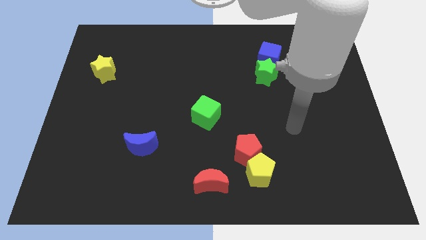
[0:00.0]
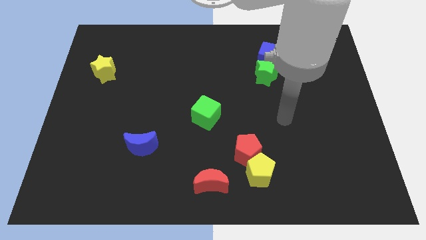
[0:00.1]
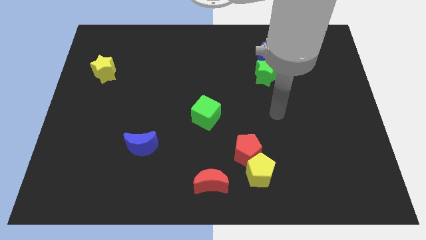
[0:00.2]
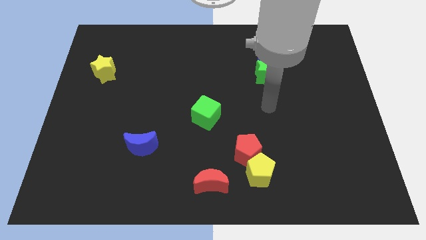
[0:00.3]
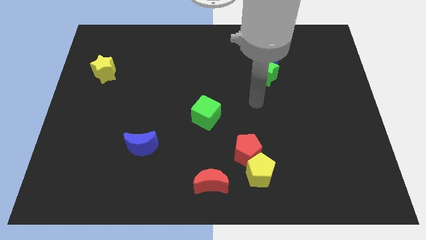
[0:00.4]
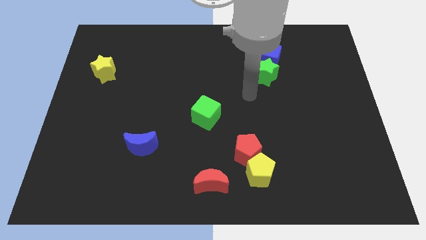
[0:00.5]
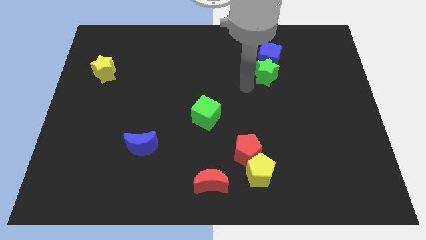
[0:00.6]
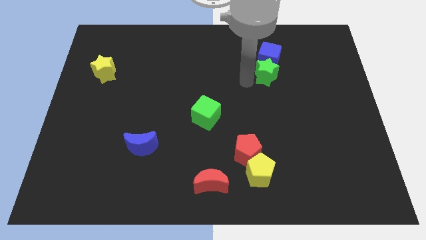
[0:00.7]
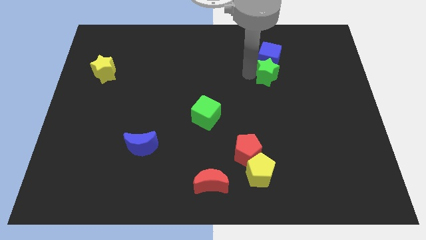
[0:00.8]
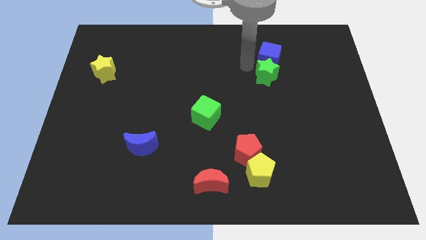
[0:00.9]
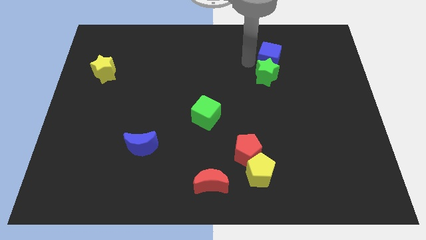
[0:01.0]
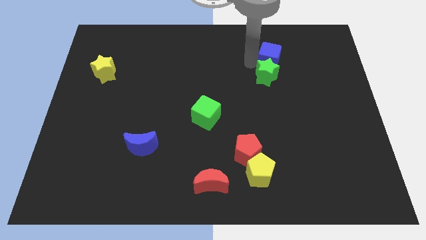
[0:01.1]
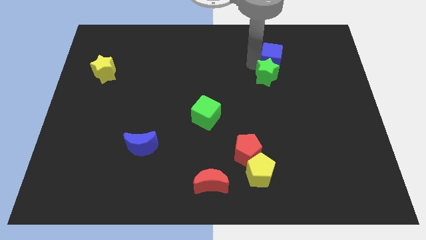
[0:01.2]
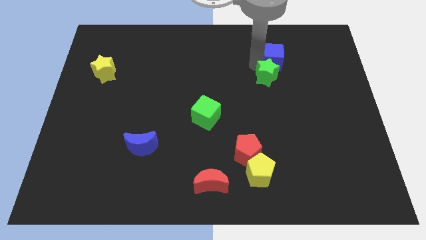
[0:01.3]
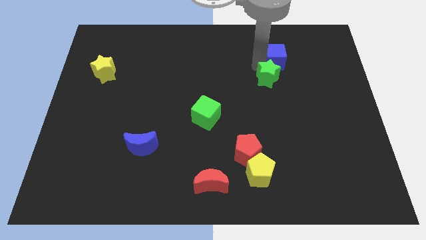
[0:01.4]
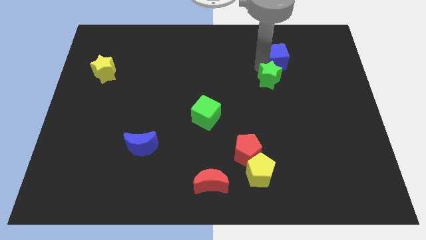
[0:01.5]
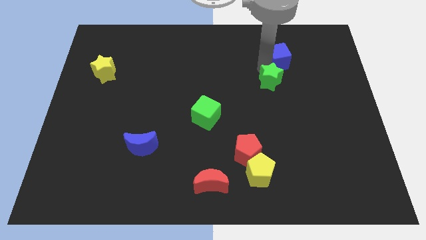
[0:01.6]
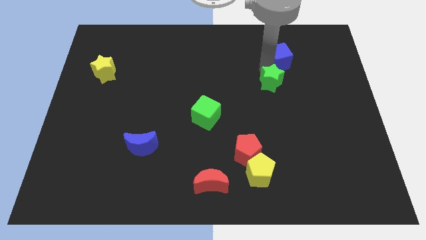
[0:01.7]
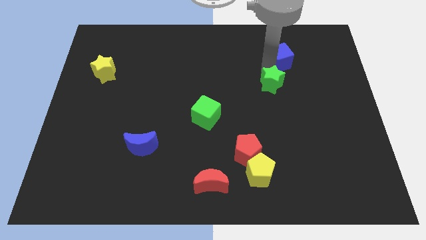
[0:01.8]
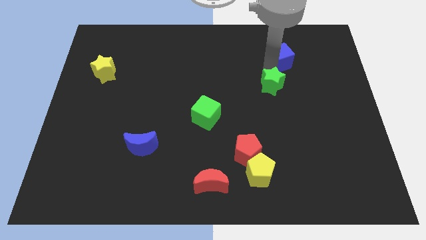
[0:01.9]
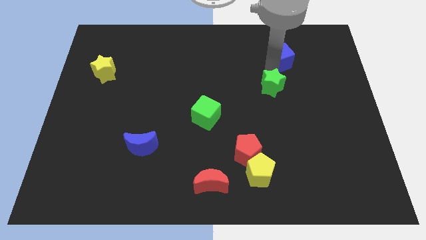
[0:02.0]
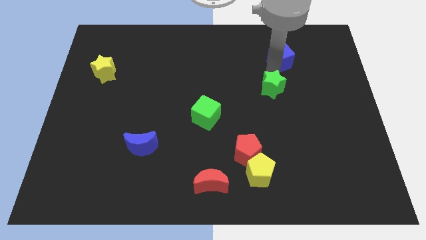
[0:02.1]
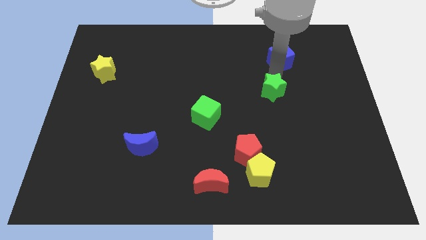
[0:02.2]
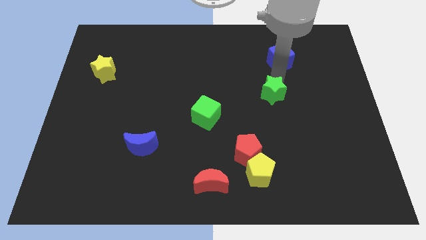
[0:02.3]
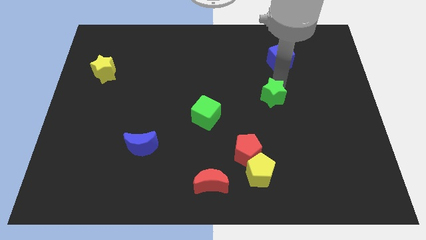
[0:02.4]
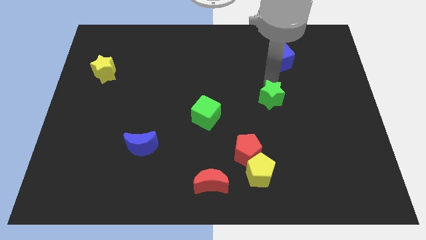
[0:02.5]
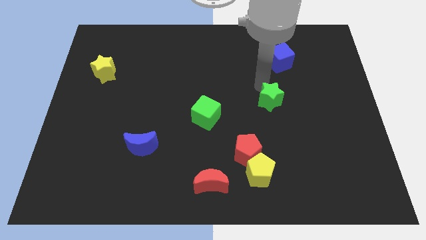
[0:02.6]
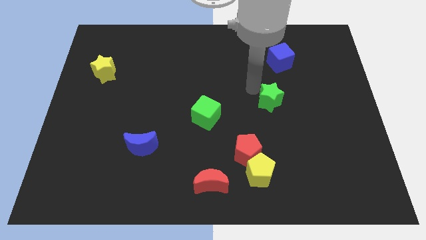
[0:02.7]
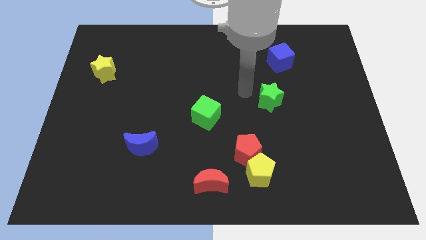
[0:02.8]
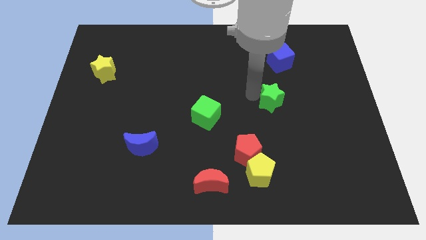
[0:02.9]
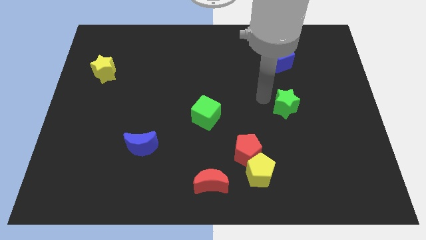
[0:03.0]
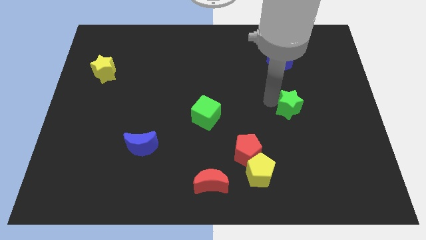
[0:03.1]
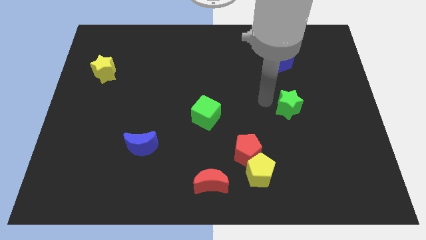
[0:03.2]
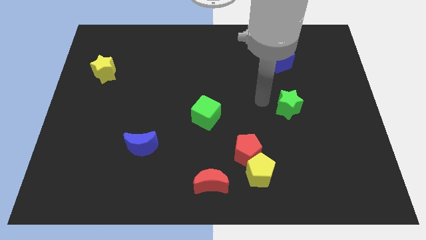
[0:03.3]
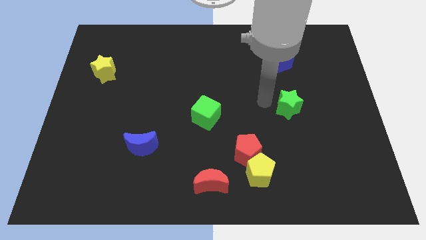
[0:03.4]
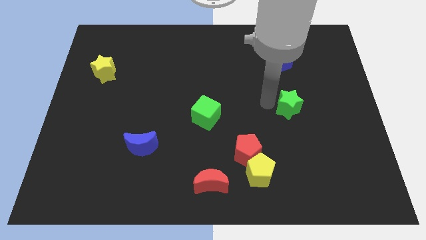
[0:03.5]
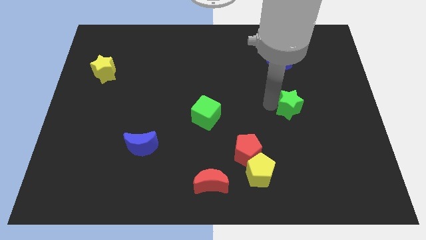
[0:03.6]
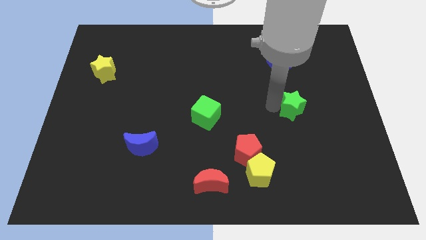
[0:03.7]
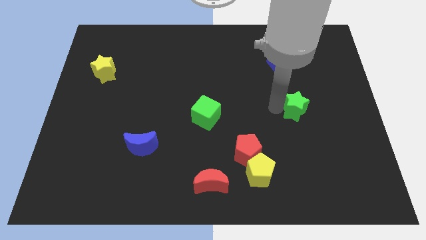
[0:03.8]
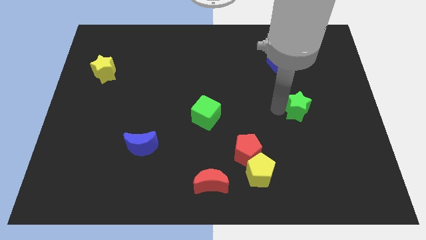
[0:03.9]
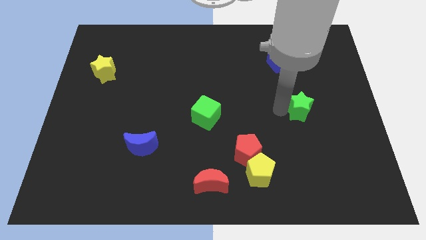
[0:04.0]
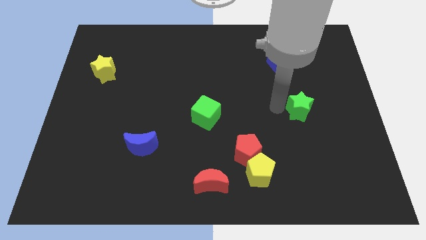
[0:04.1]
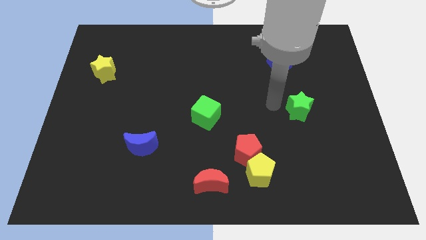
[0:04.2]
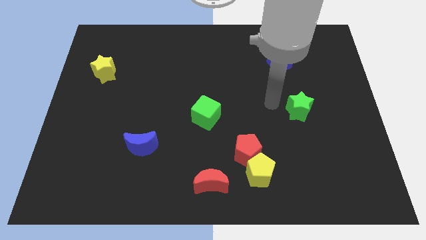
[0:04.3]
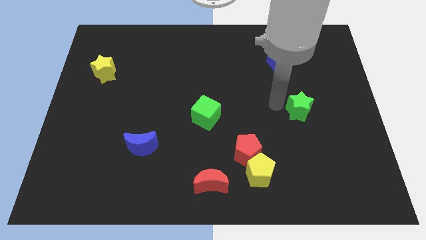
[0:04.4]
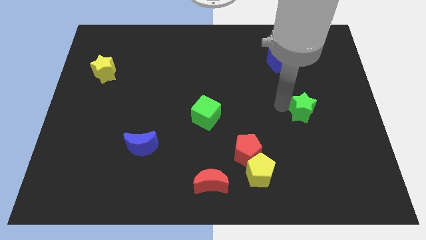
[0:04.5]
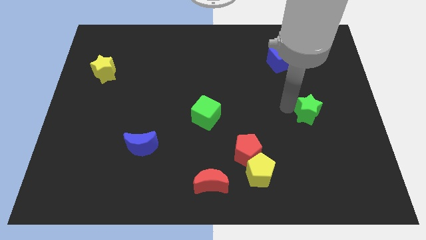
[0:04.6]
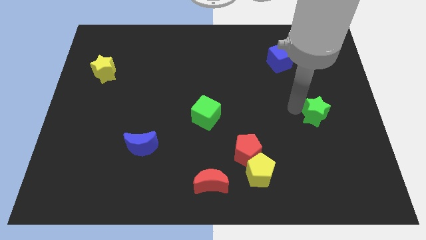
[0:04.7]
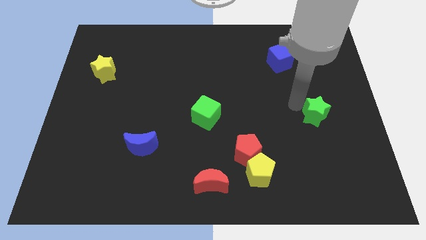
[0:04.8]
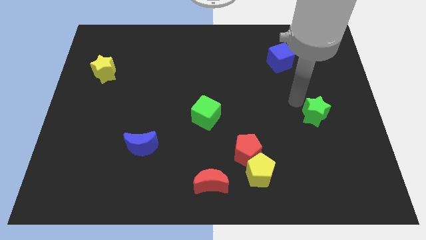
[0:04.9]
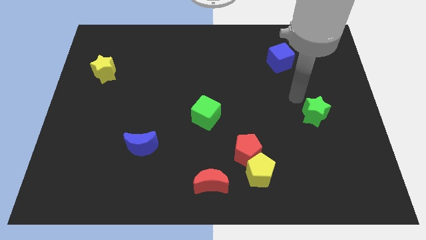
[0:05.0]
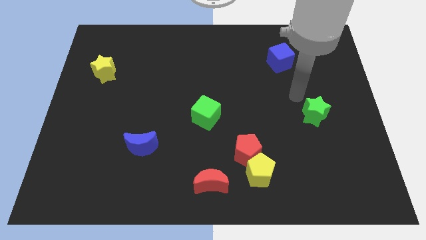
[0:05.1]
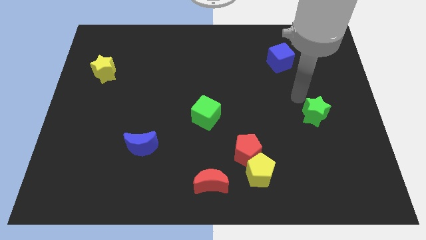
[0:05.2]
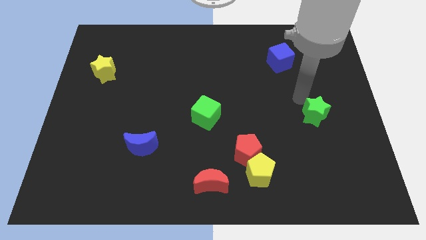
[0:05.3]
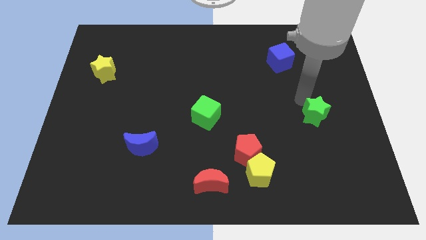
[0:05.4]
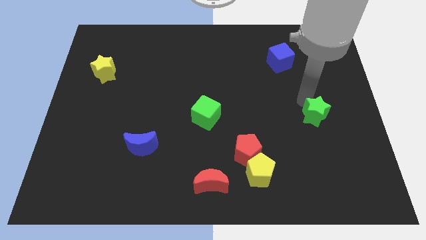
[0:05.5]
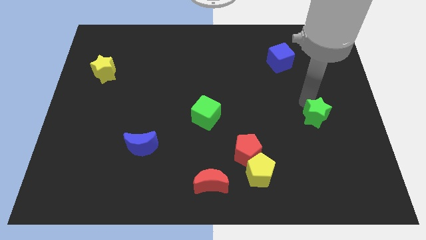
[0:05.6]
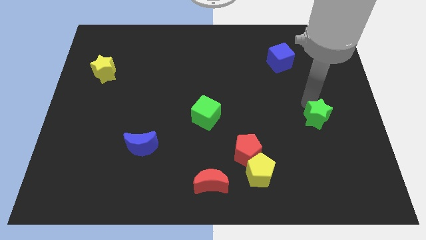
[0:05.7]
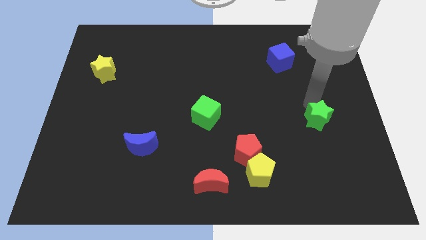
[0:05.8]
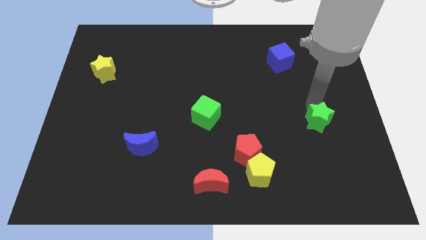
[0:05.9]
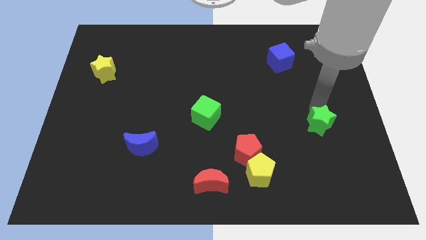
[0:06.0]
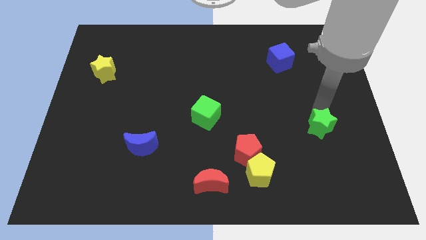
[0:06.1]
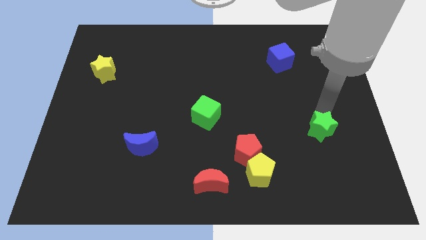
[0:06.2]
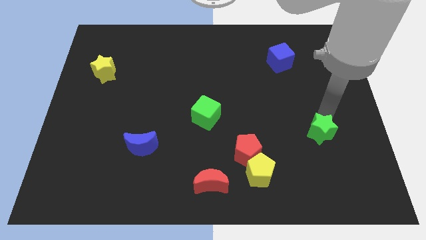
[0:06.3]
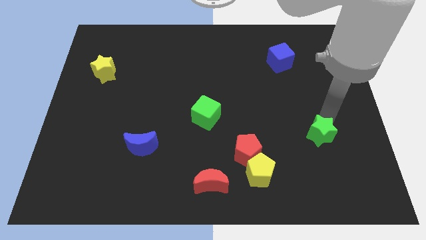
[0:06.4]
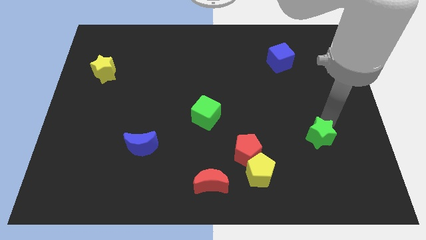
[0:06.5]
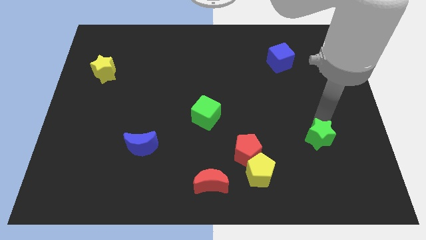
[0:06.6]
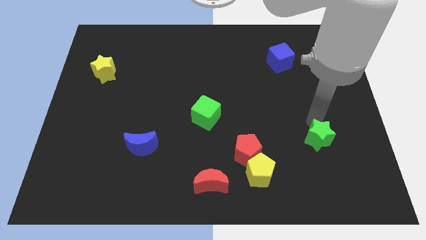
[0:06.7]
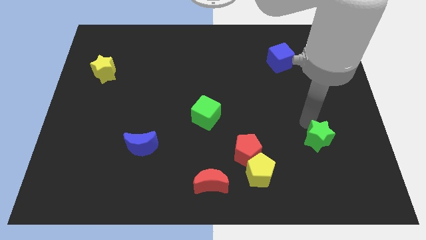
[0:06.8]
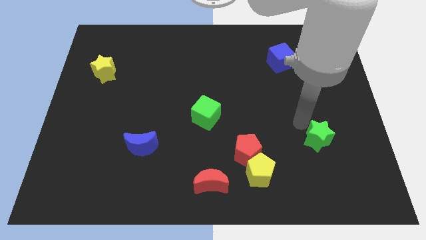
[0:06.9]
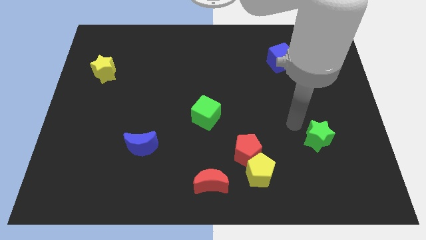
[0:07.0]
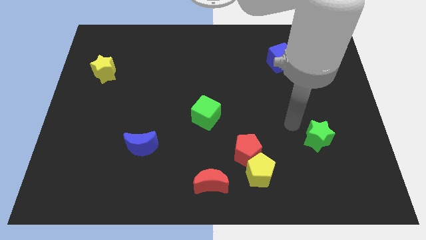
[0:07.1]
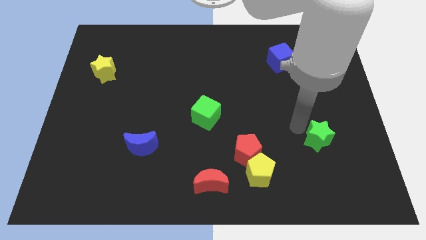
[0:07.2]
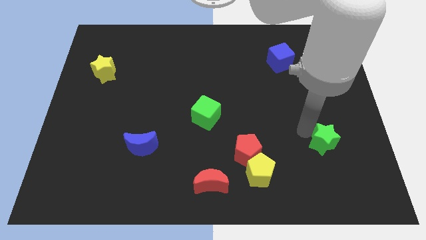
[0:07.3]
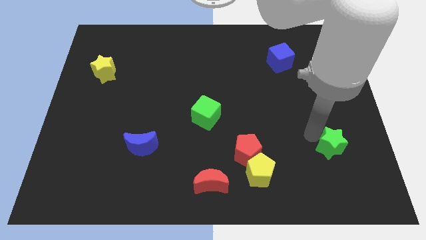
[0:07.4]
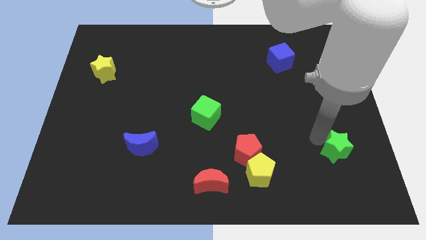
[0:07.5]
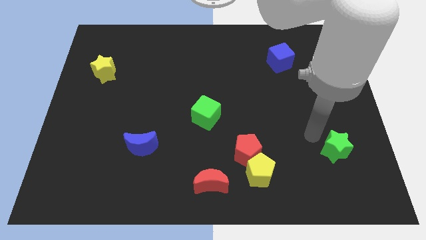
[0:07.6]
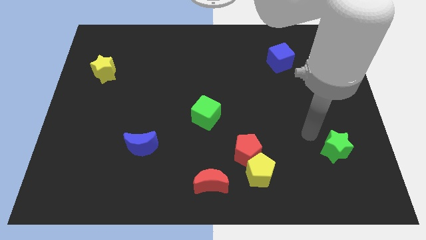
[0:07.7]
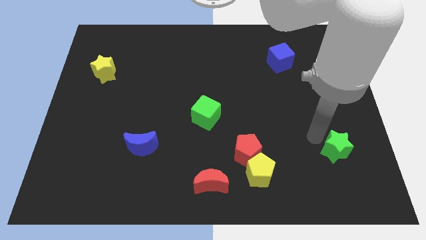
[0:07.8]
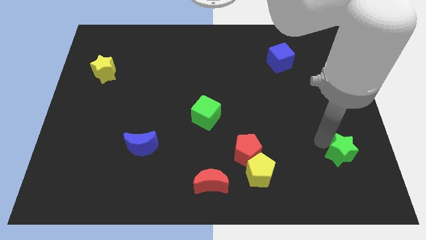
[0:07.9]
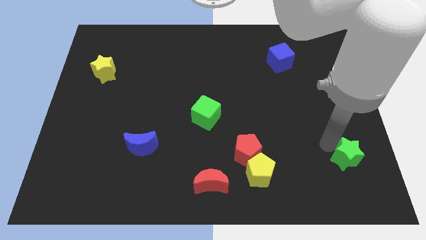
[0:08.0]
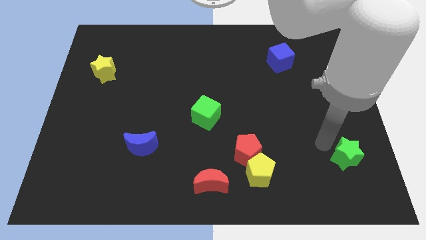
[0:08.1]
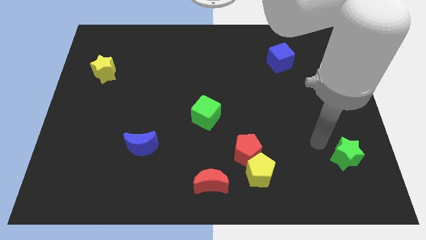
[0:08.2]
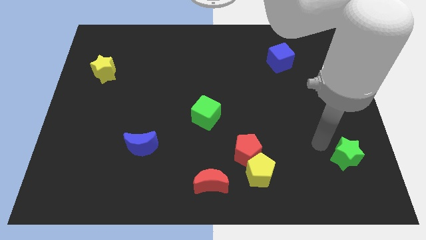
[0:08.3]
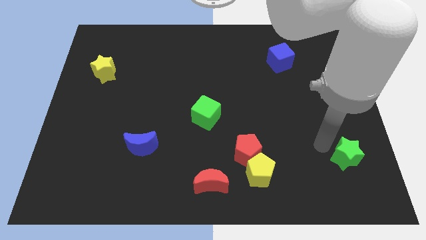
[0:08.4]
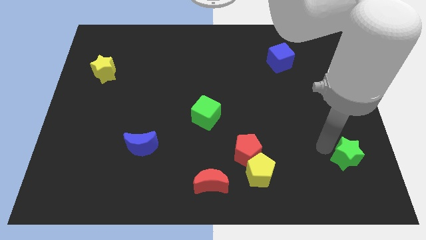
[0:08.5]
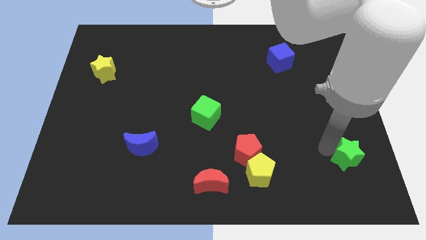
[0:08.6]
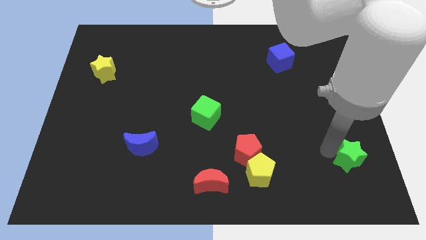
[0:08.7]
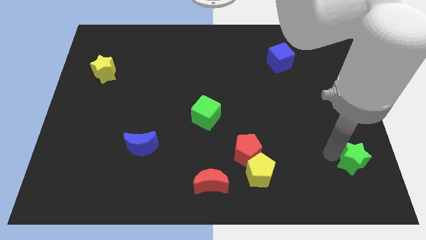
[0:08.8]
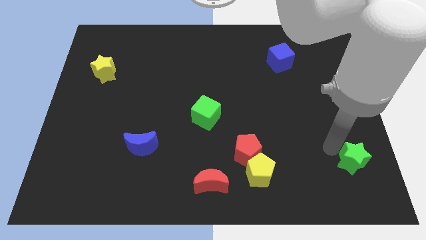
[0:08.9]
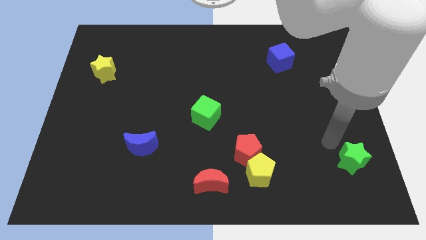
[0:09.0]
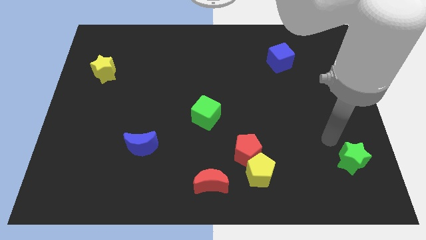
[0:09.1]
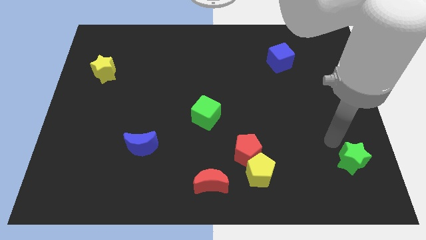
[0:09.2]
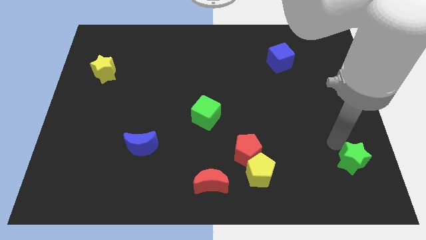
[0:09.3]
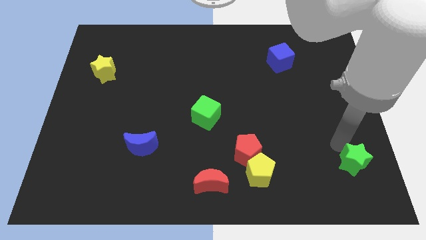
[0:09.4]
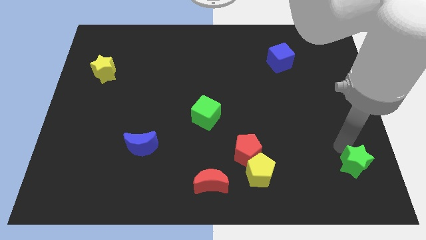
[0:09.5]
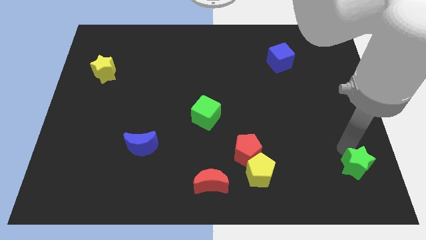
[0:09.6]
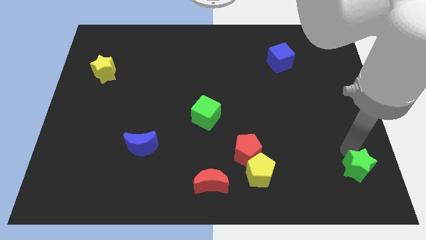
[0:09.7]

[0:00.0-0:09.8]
move the green star to the bottom right corner
